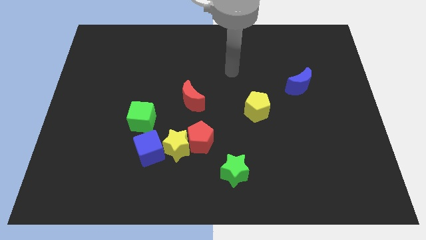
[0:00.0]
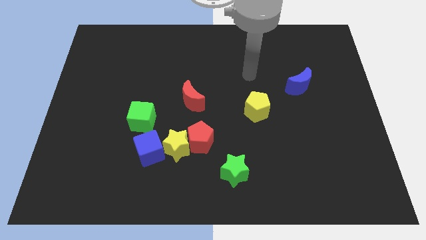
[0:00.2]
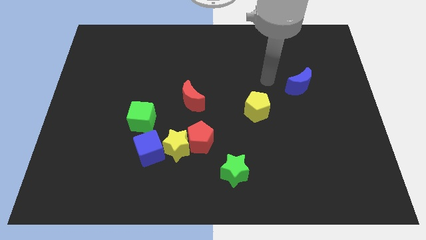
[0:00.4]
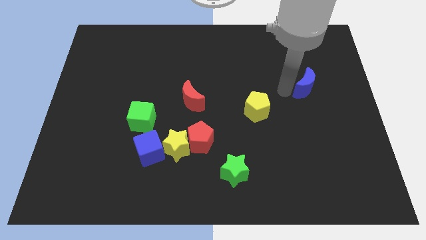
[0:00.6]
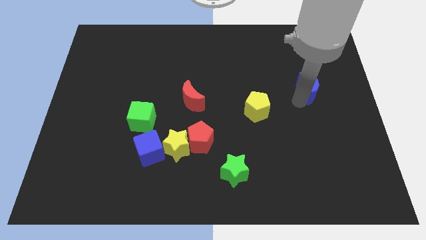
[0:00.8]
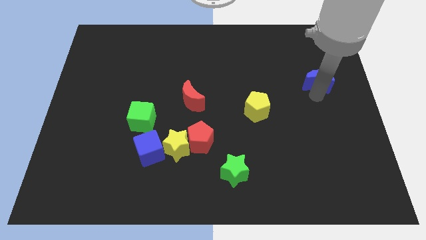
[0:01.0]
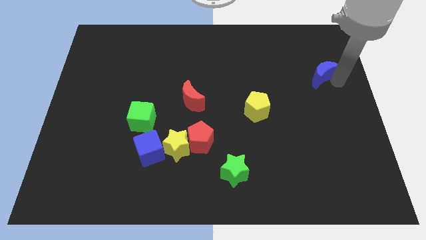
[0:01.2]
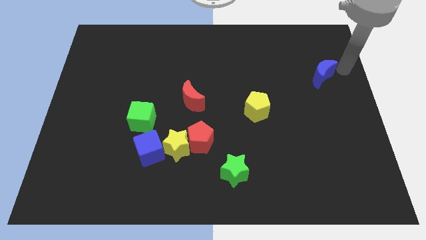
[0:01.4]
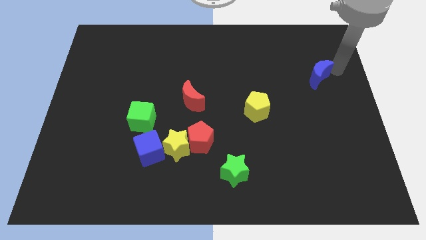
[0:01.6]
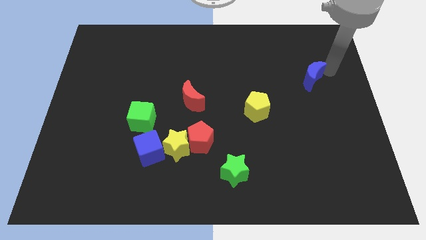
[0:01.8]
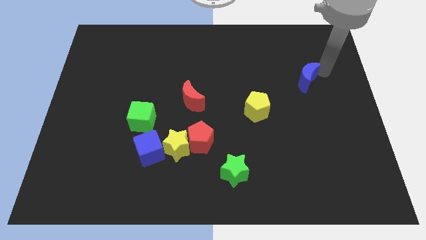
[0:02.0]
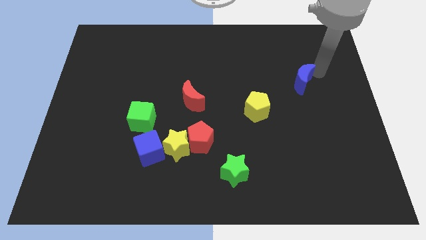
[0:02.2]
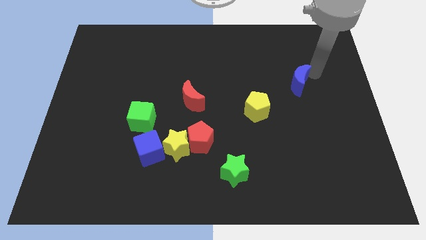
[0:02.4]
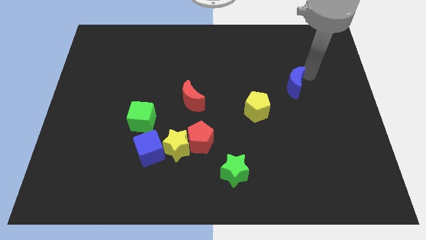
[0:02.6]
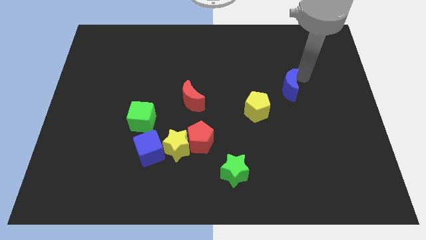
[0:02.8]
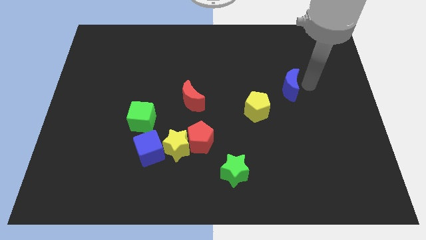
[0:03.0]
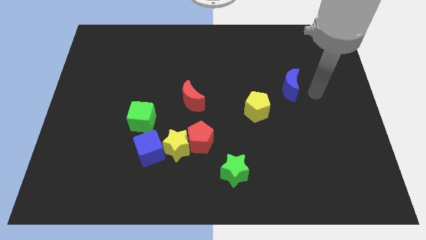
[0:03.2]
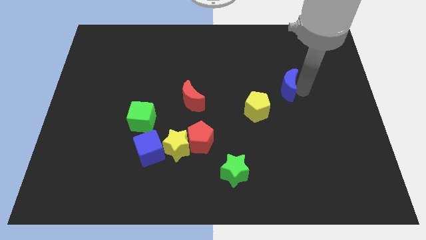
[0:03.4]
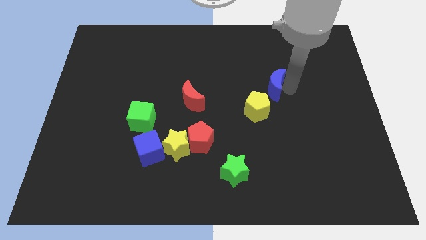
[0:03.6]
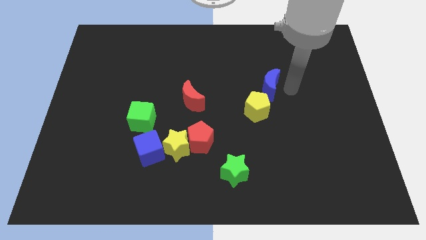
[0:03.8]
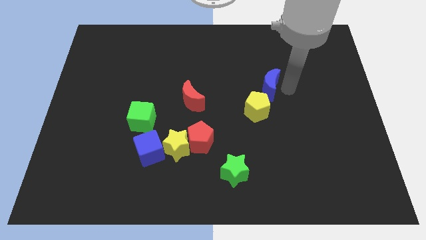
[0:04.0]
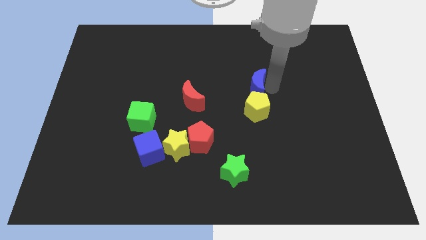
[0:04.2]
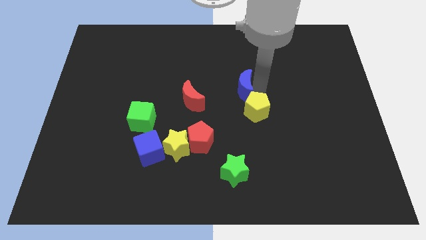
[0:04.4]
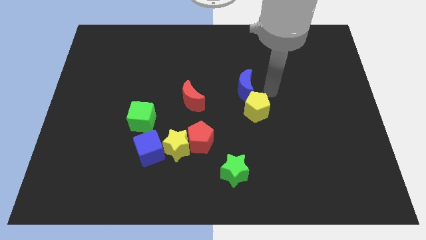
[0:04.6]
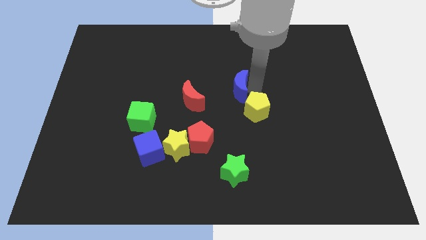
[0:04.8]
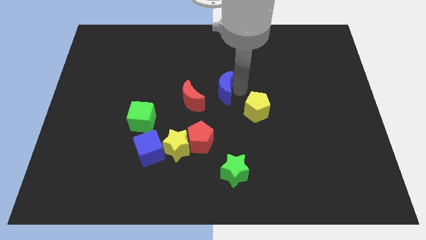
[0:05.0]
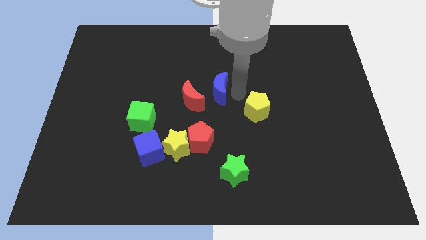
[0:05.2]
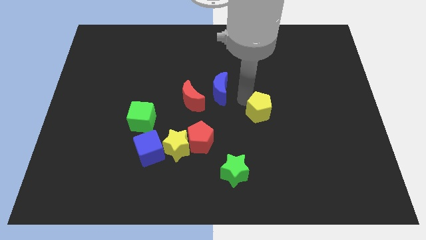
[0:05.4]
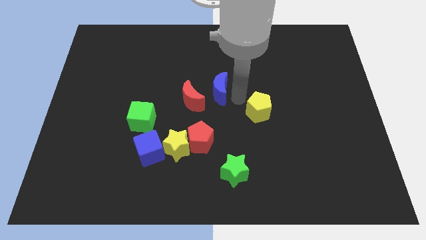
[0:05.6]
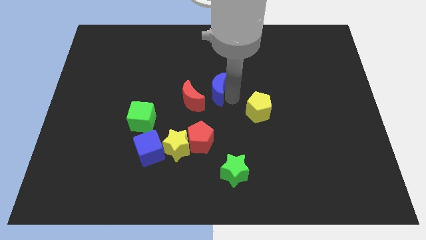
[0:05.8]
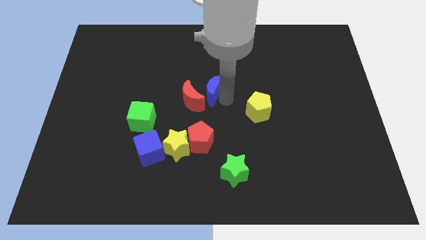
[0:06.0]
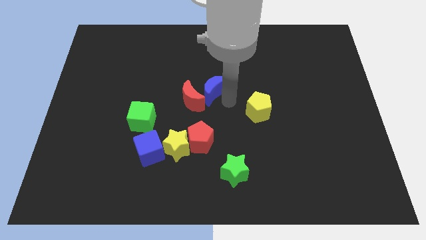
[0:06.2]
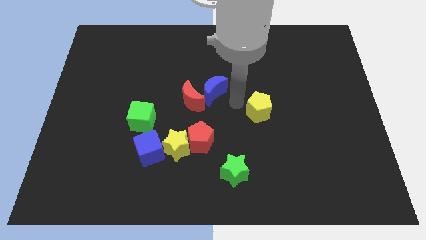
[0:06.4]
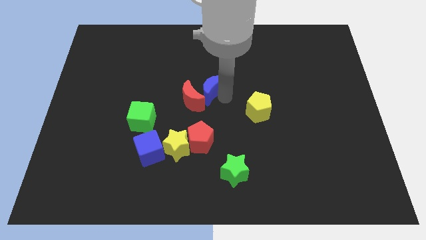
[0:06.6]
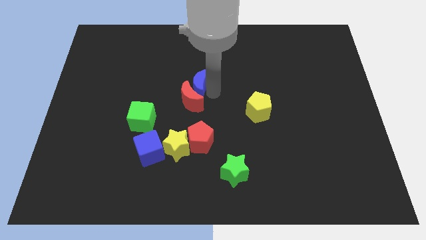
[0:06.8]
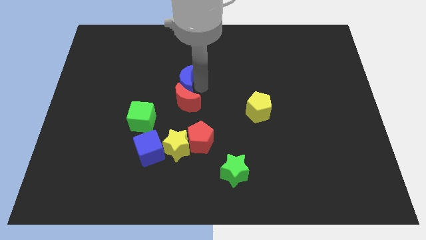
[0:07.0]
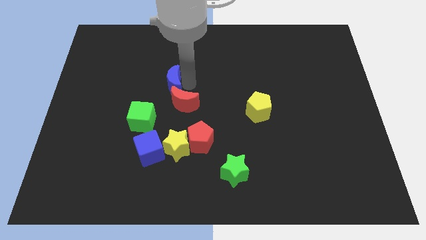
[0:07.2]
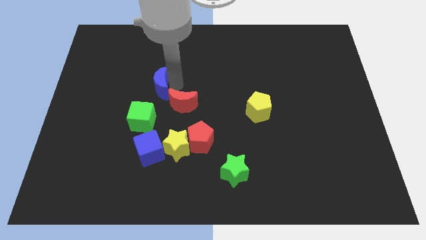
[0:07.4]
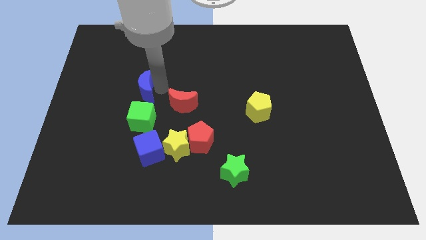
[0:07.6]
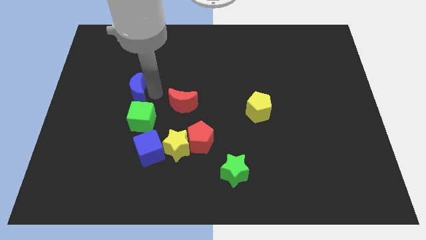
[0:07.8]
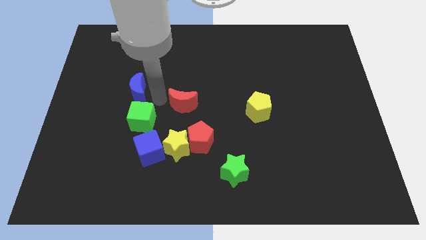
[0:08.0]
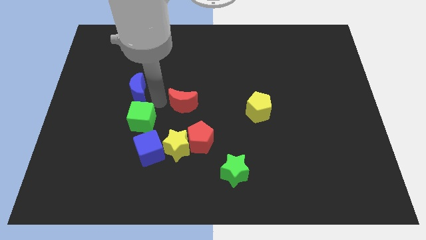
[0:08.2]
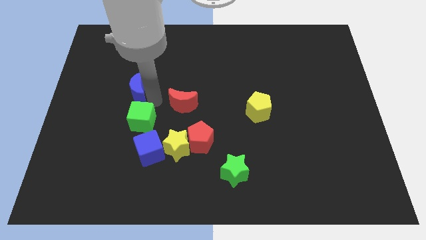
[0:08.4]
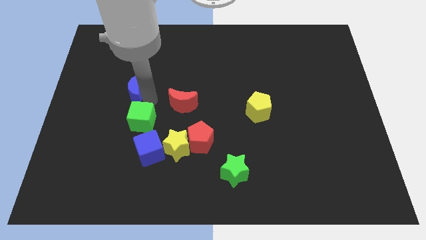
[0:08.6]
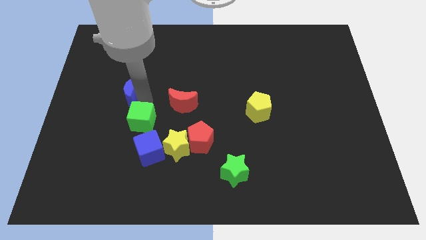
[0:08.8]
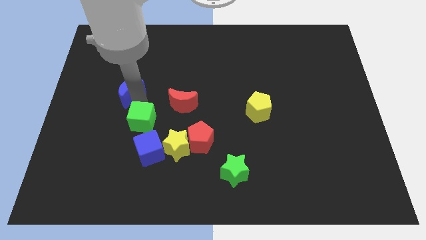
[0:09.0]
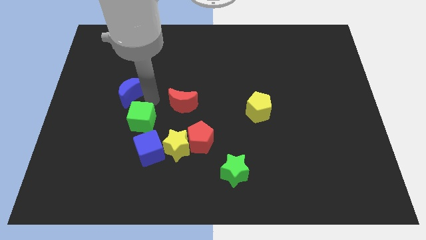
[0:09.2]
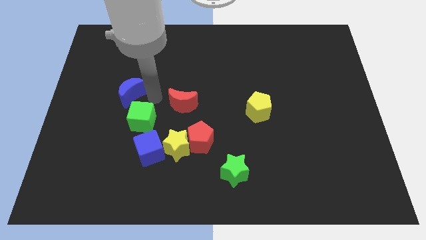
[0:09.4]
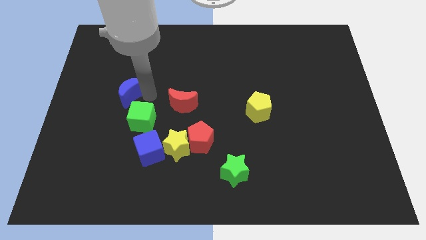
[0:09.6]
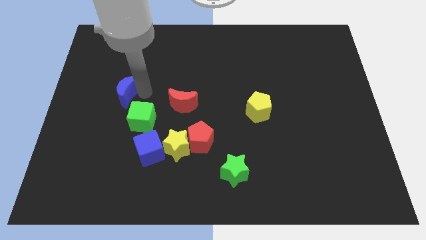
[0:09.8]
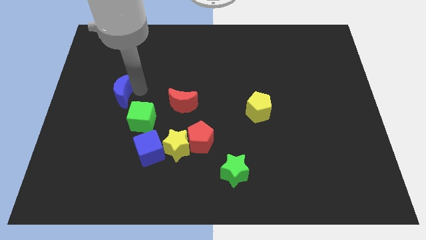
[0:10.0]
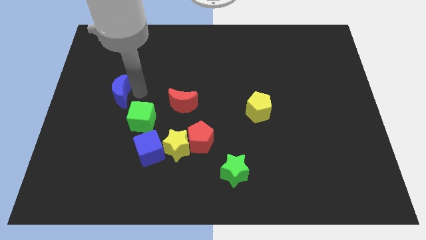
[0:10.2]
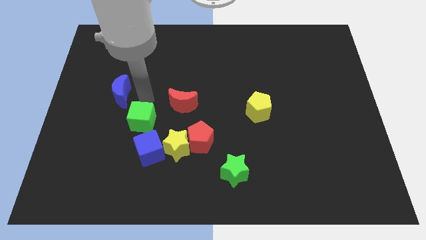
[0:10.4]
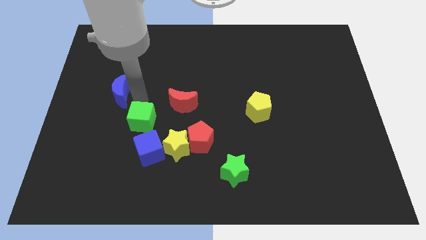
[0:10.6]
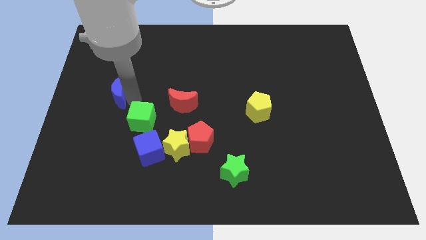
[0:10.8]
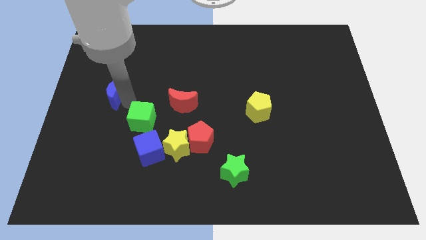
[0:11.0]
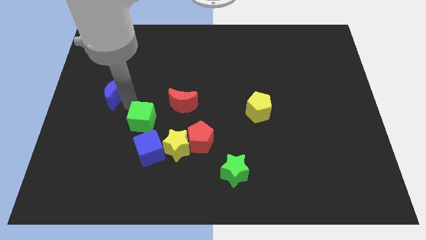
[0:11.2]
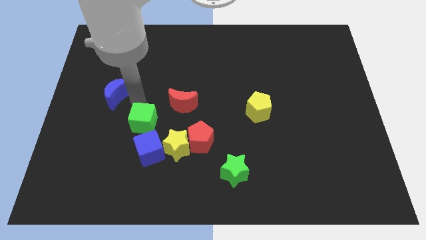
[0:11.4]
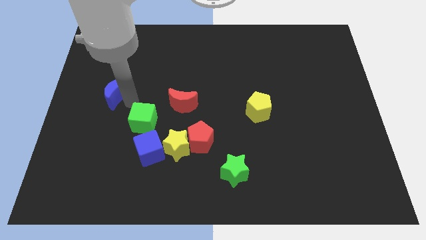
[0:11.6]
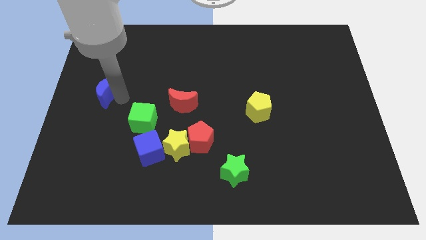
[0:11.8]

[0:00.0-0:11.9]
put the blue moon to the left side of the board
